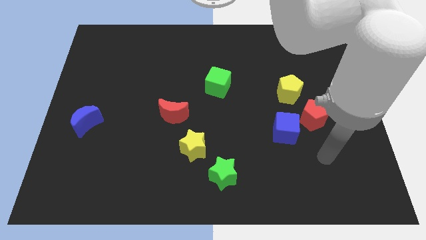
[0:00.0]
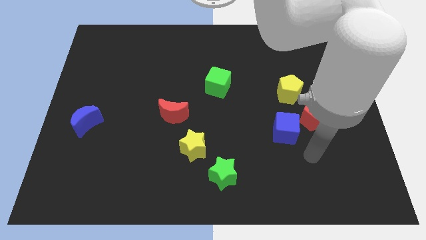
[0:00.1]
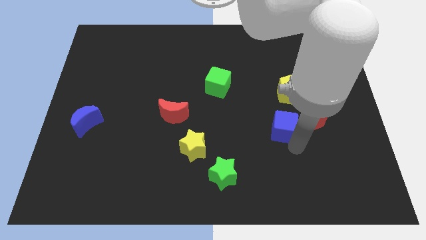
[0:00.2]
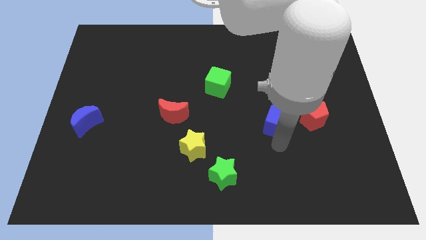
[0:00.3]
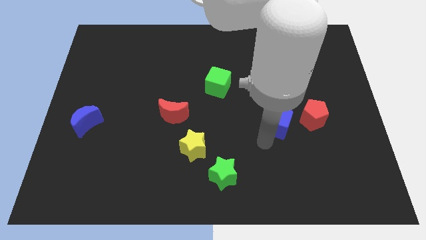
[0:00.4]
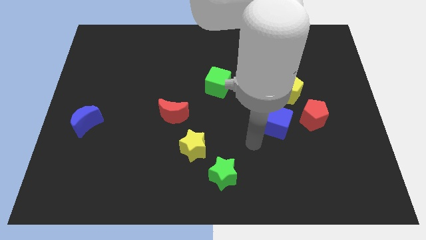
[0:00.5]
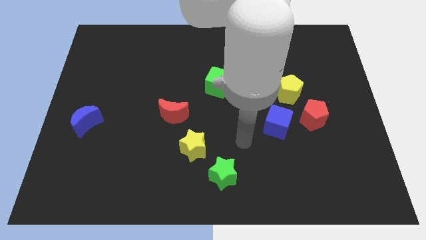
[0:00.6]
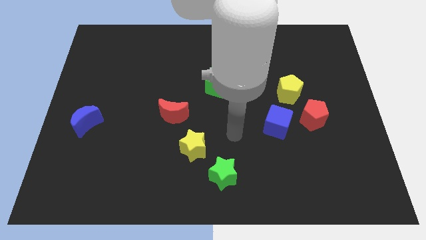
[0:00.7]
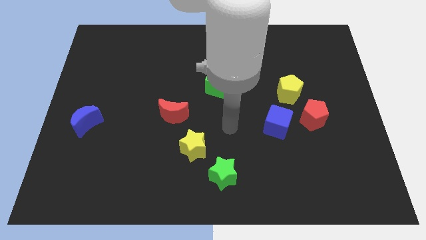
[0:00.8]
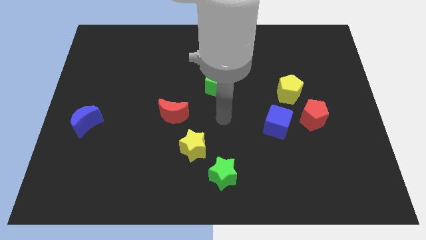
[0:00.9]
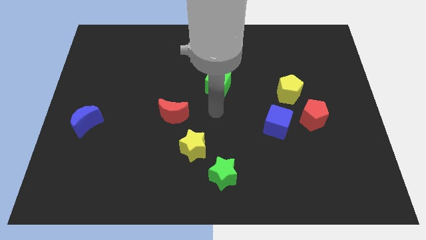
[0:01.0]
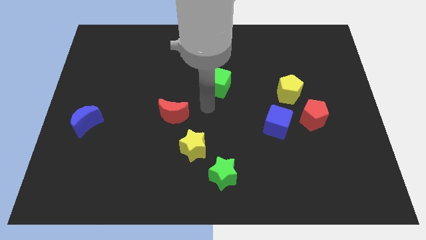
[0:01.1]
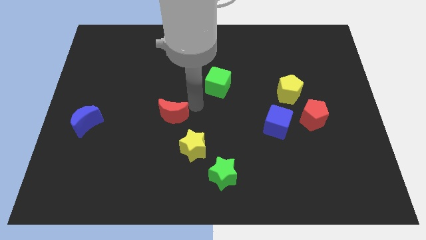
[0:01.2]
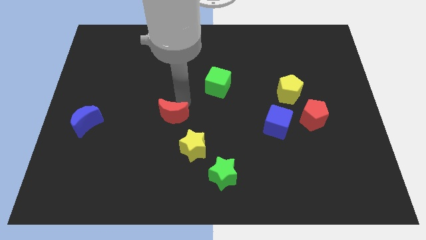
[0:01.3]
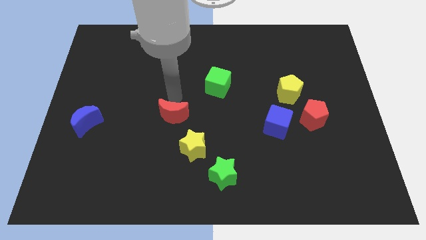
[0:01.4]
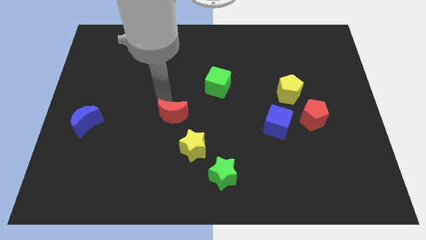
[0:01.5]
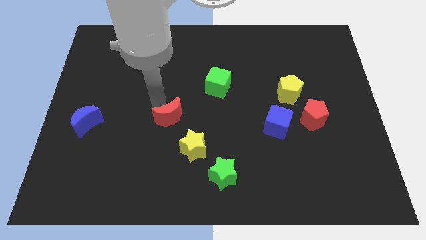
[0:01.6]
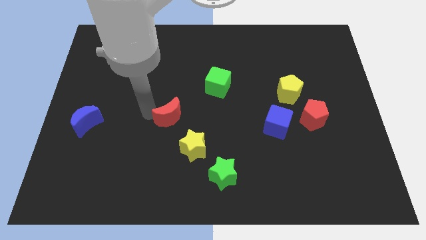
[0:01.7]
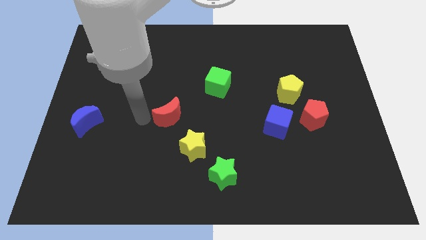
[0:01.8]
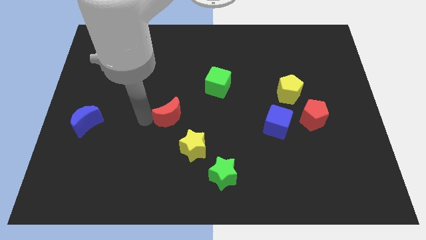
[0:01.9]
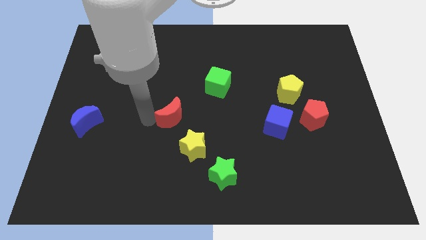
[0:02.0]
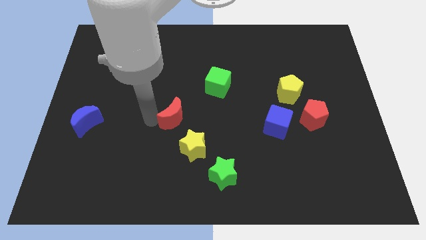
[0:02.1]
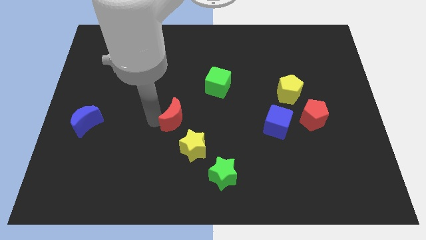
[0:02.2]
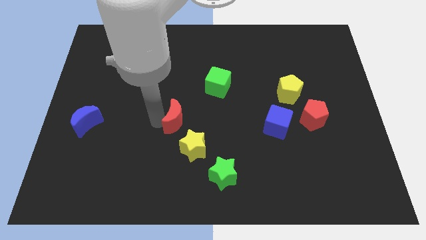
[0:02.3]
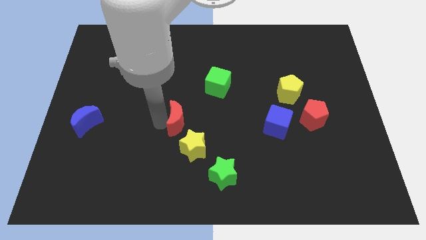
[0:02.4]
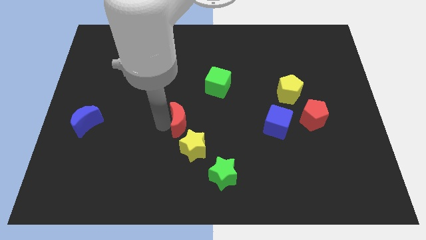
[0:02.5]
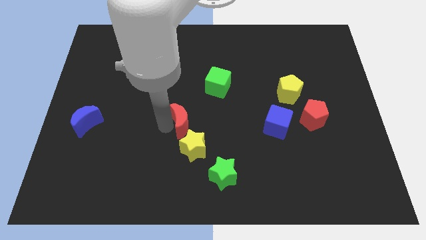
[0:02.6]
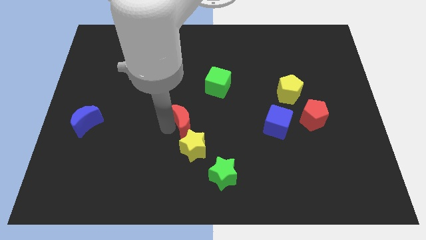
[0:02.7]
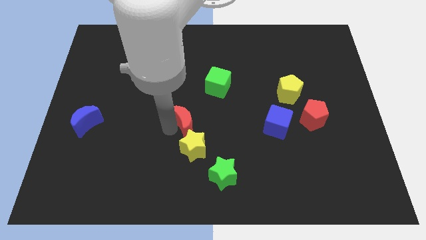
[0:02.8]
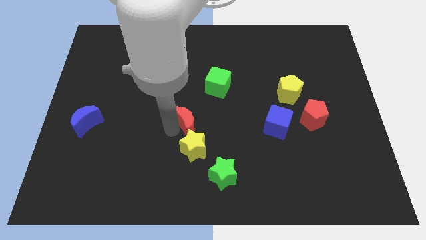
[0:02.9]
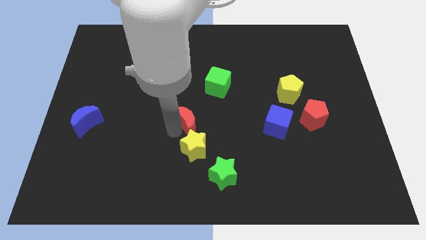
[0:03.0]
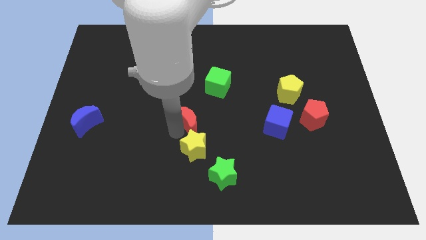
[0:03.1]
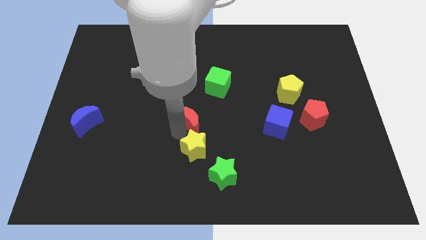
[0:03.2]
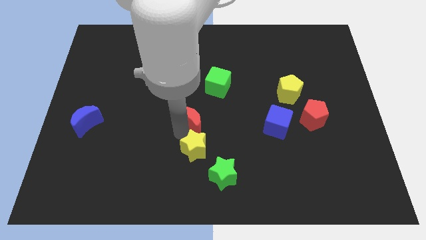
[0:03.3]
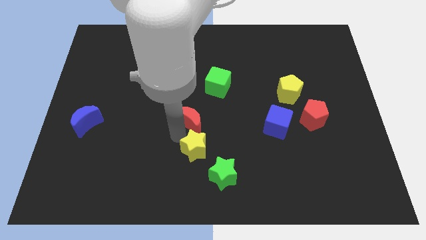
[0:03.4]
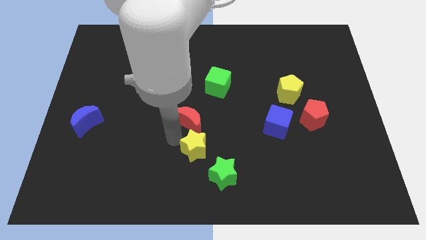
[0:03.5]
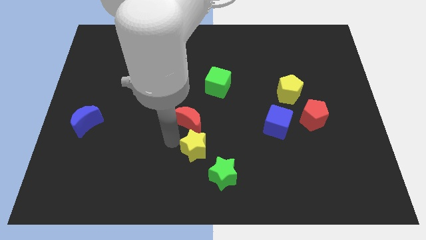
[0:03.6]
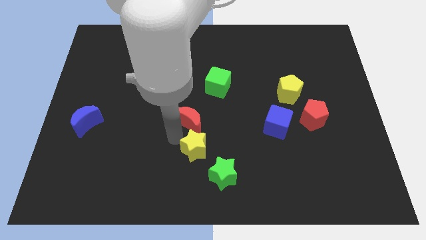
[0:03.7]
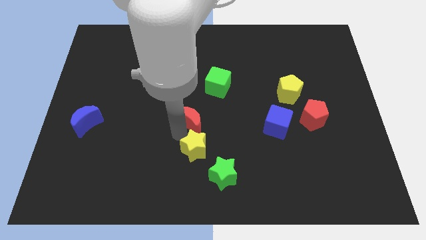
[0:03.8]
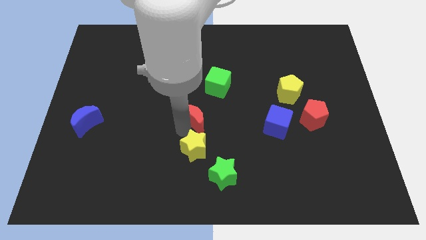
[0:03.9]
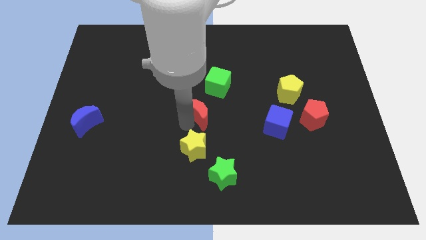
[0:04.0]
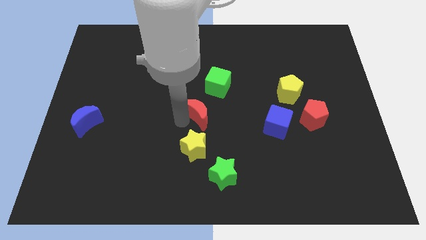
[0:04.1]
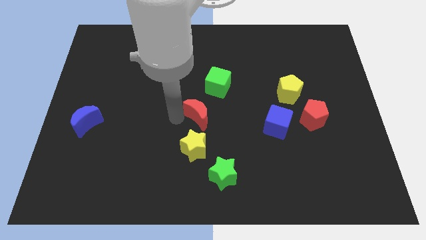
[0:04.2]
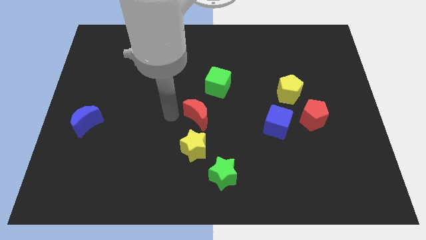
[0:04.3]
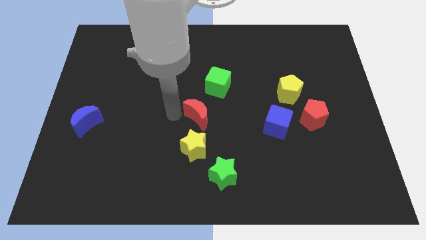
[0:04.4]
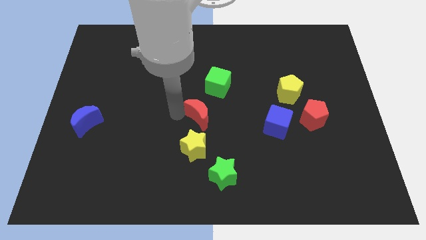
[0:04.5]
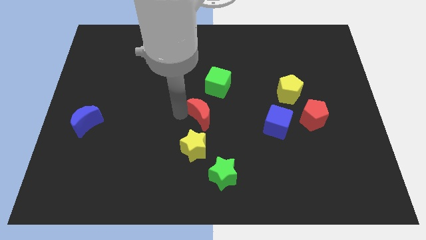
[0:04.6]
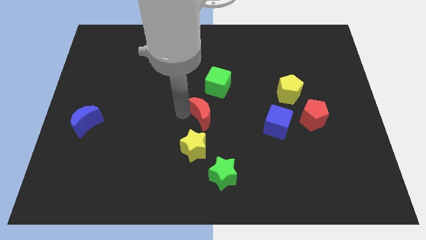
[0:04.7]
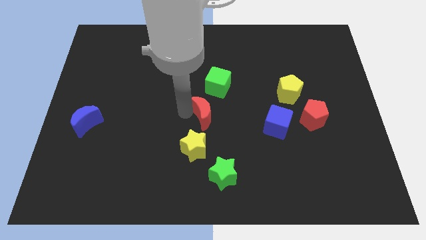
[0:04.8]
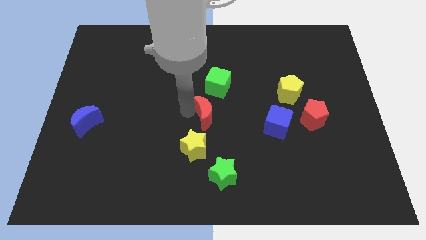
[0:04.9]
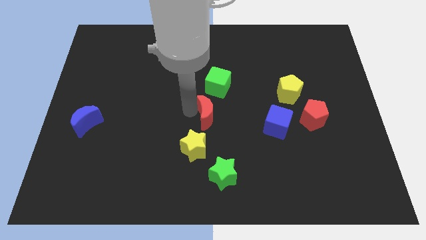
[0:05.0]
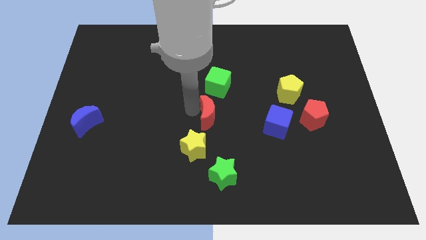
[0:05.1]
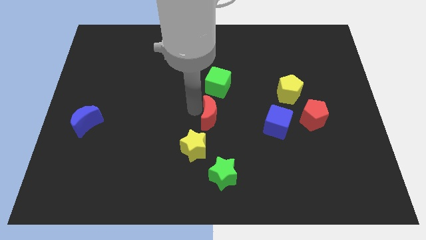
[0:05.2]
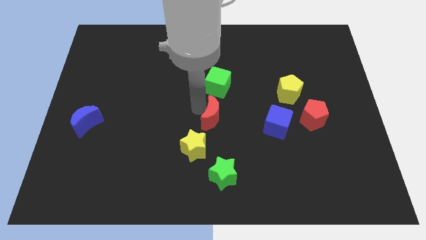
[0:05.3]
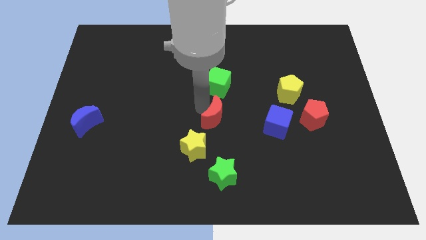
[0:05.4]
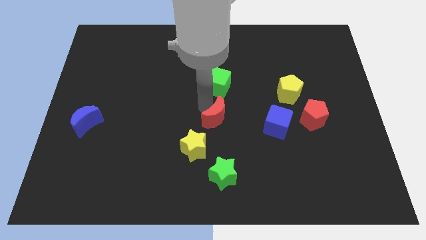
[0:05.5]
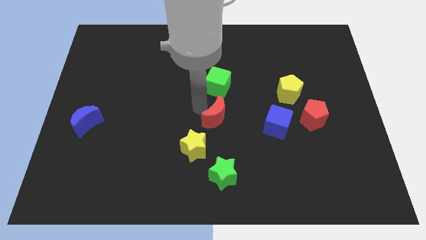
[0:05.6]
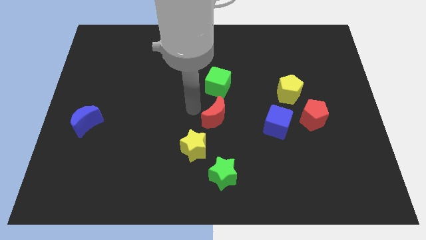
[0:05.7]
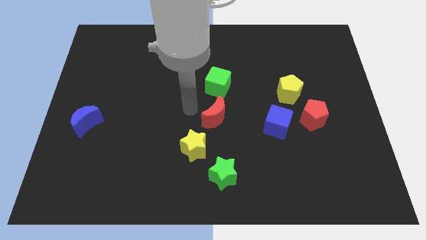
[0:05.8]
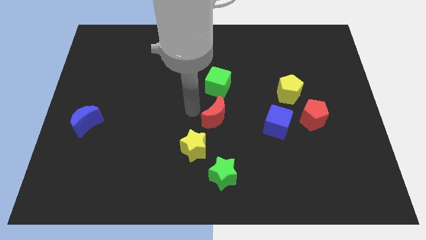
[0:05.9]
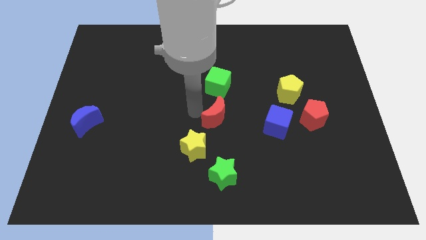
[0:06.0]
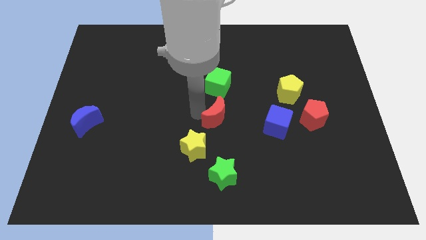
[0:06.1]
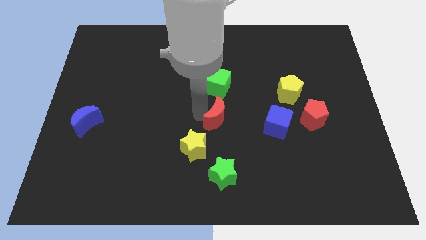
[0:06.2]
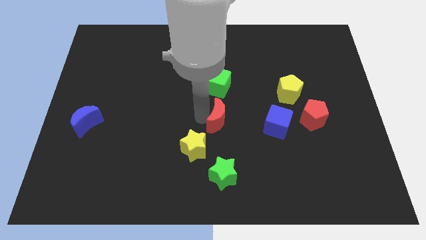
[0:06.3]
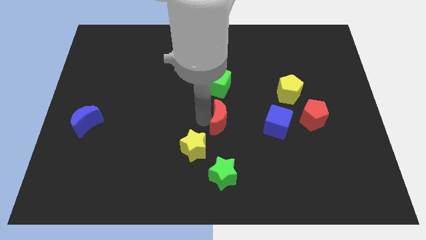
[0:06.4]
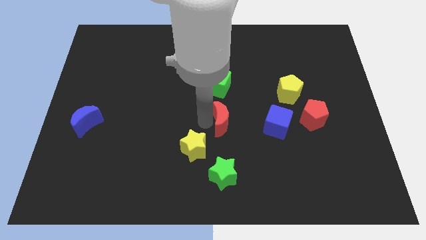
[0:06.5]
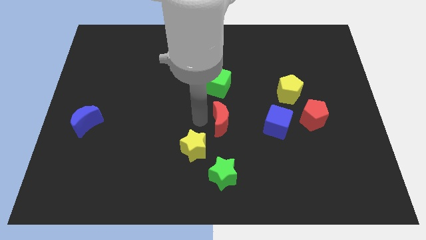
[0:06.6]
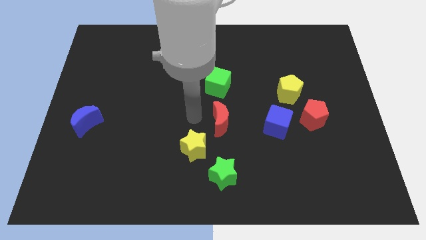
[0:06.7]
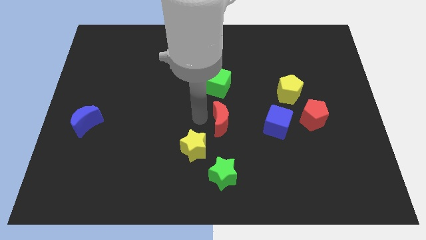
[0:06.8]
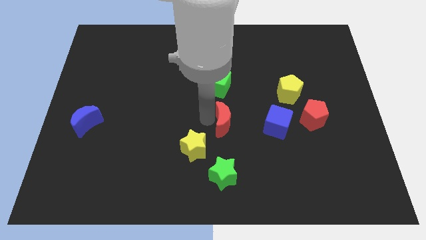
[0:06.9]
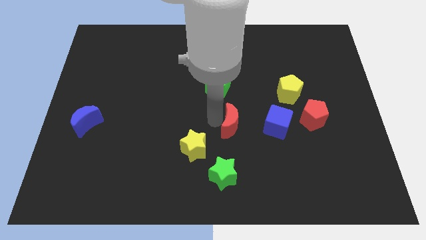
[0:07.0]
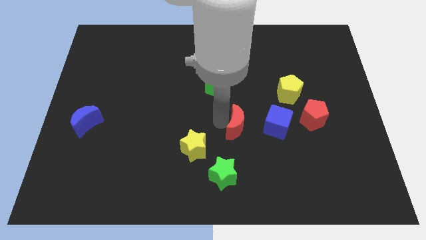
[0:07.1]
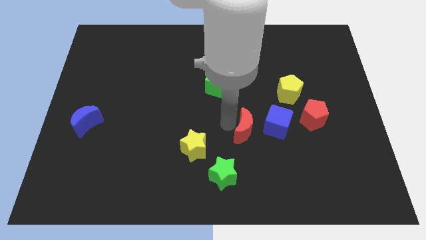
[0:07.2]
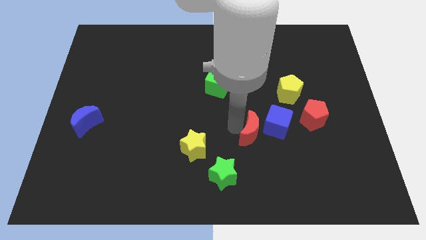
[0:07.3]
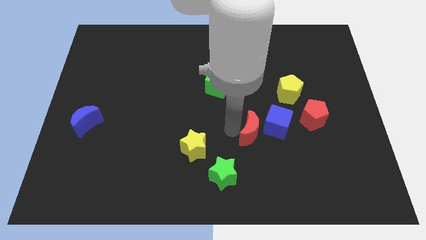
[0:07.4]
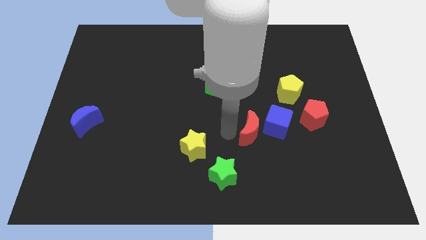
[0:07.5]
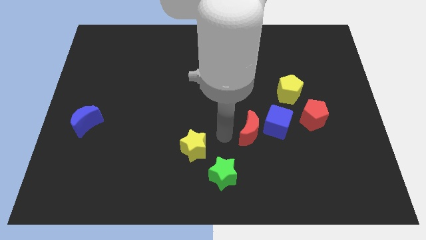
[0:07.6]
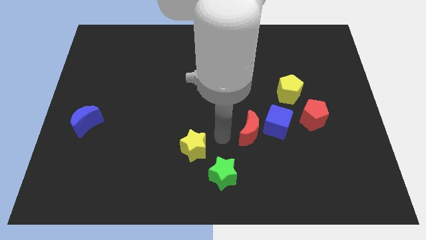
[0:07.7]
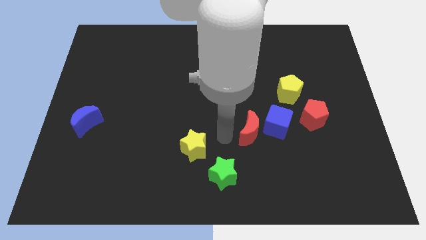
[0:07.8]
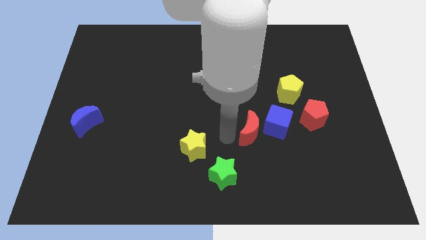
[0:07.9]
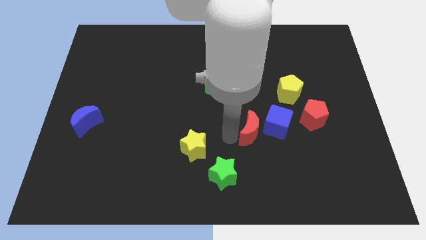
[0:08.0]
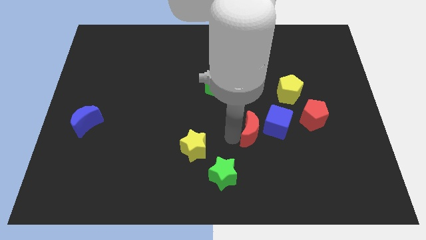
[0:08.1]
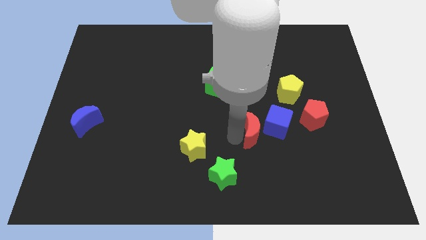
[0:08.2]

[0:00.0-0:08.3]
slide the red moon to the blue cube
